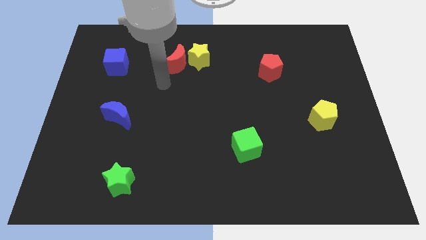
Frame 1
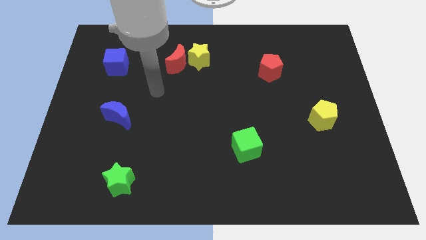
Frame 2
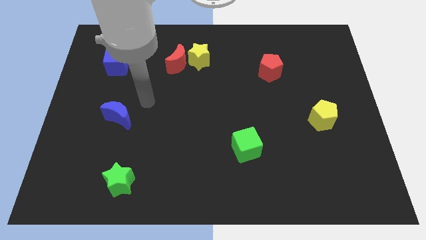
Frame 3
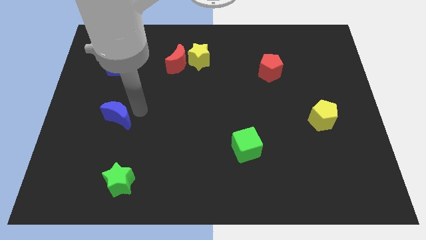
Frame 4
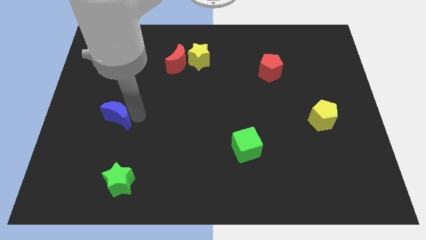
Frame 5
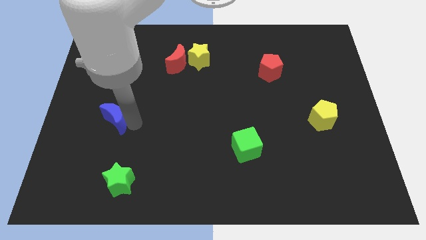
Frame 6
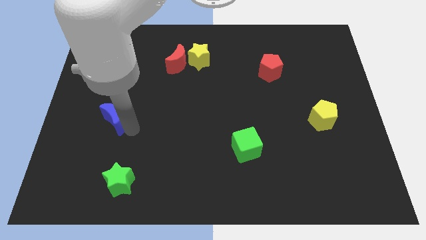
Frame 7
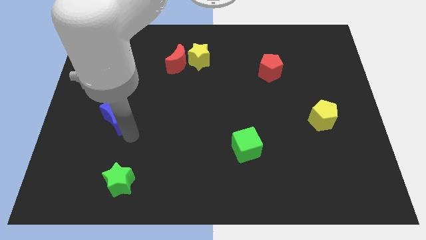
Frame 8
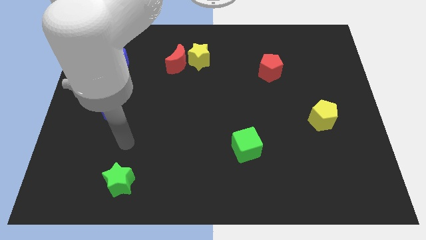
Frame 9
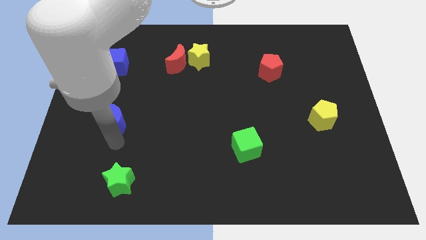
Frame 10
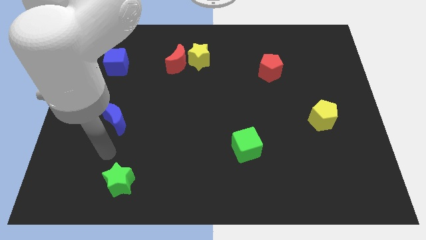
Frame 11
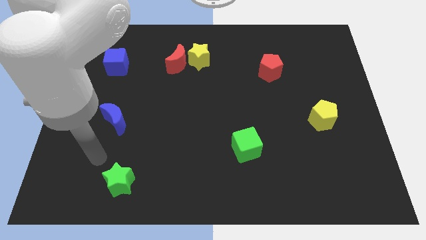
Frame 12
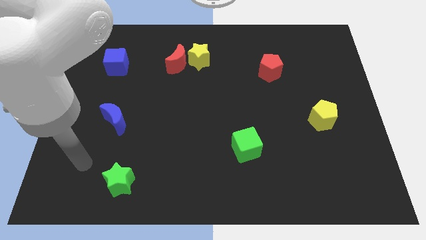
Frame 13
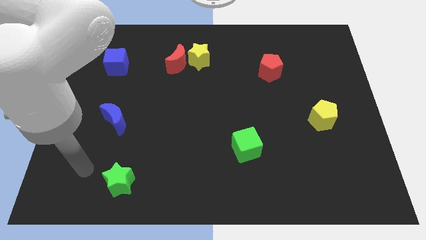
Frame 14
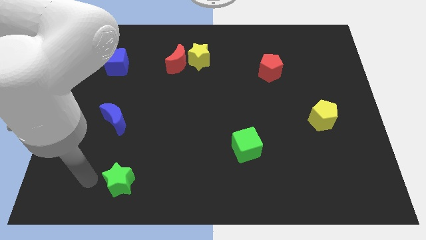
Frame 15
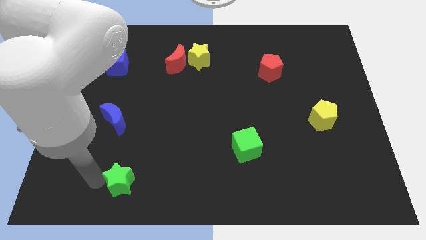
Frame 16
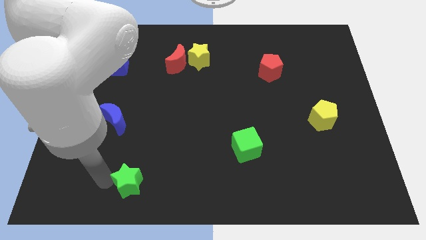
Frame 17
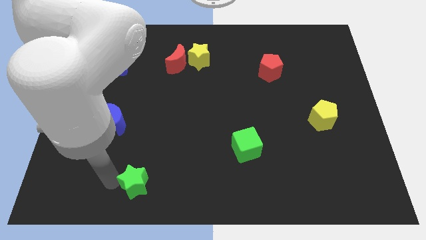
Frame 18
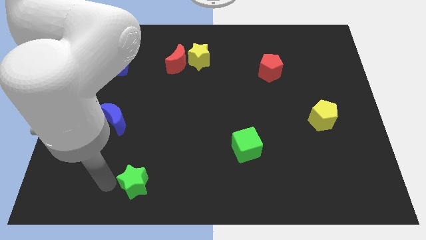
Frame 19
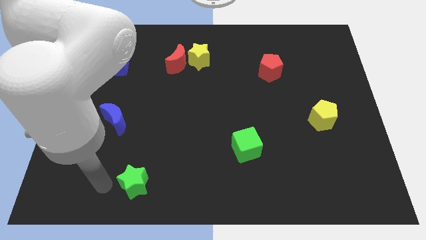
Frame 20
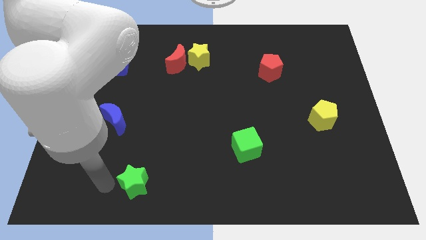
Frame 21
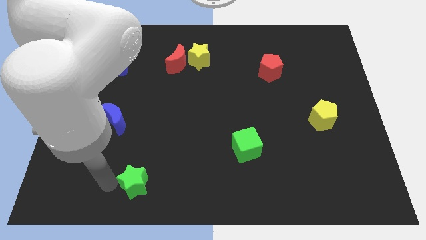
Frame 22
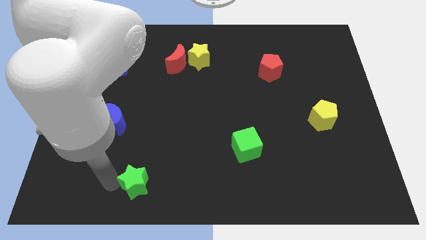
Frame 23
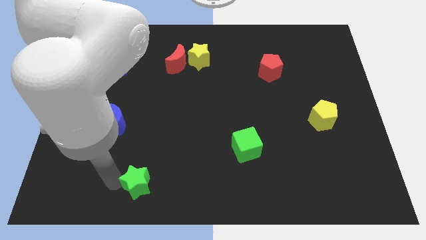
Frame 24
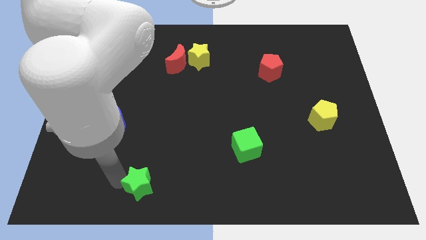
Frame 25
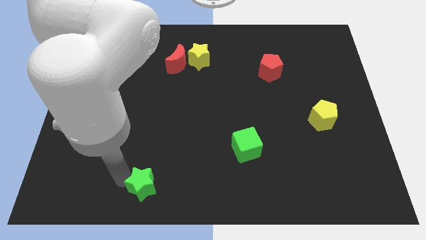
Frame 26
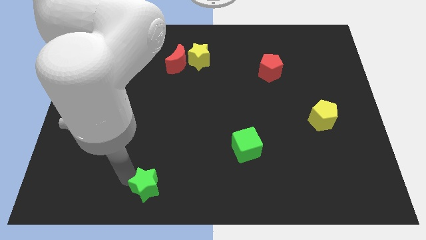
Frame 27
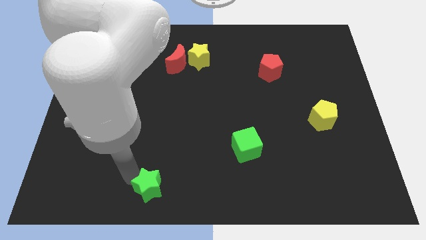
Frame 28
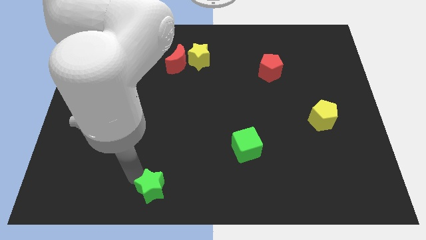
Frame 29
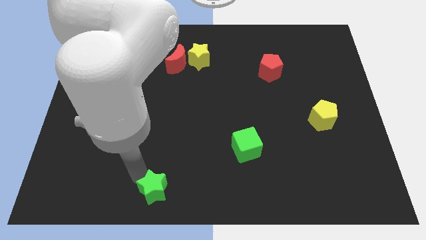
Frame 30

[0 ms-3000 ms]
slide the green star to the right a bit

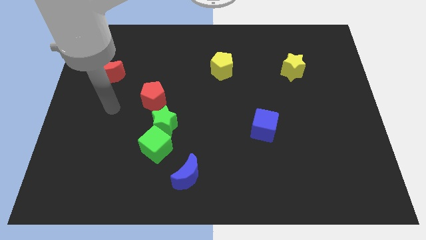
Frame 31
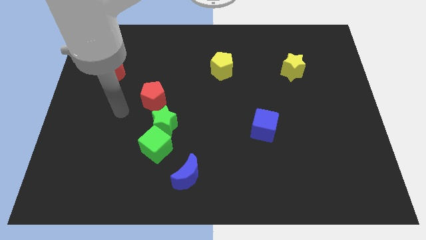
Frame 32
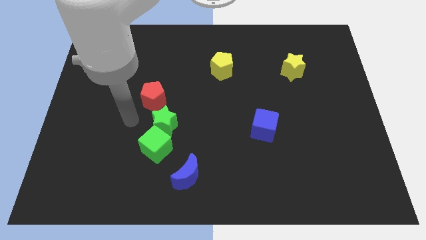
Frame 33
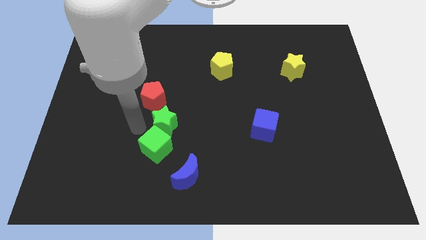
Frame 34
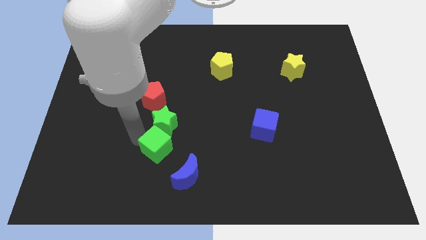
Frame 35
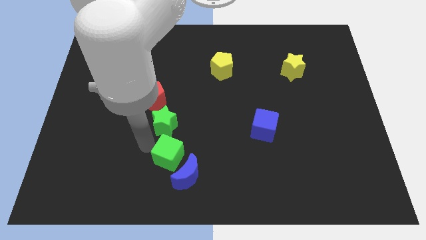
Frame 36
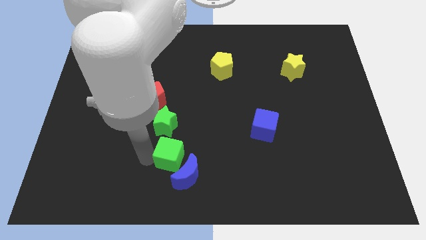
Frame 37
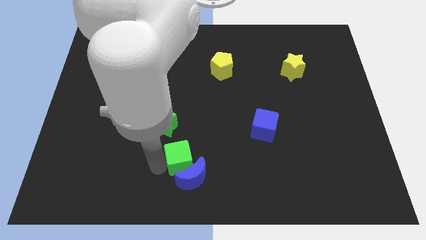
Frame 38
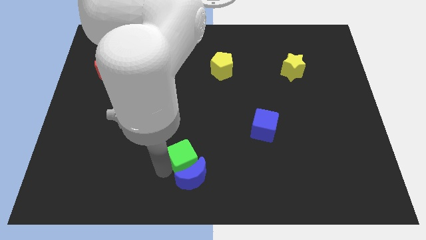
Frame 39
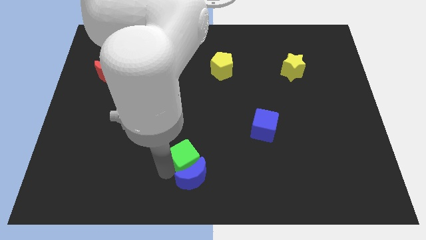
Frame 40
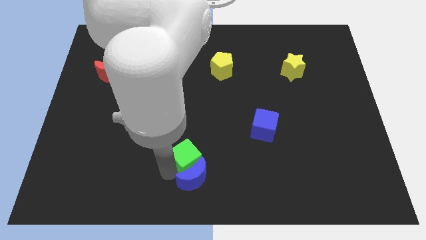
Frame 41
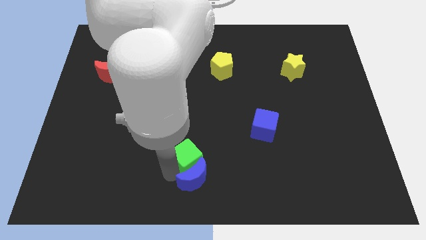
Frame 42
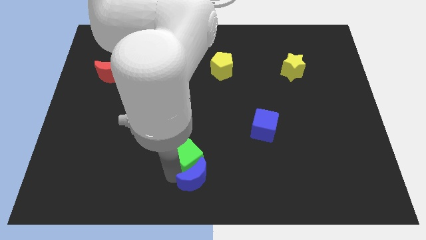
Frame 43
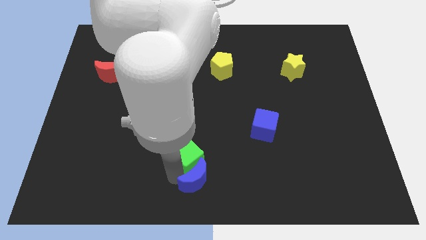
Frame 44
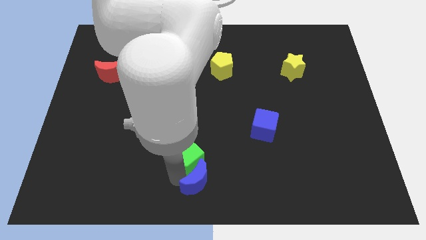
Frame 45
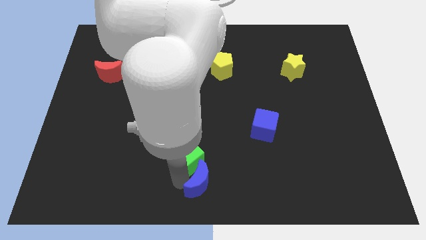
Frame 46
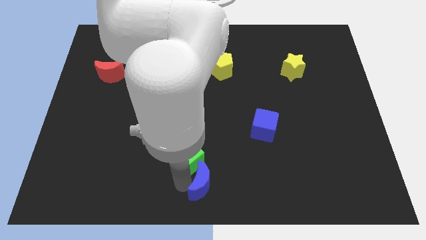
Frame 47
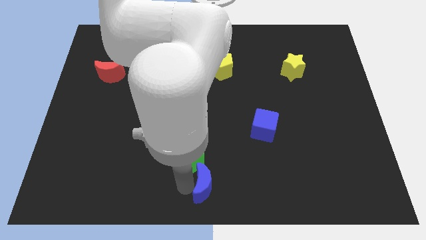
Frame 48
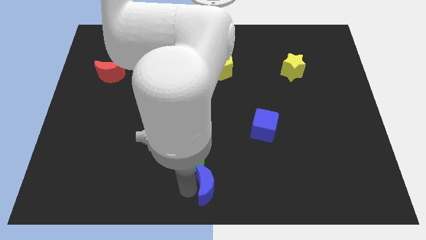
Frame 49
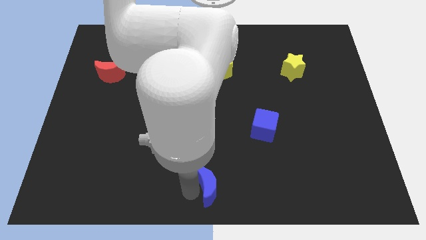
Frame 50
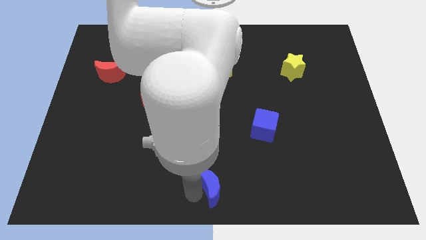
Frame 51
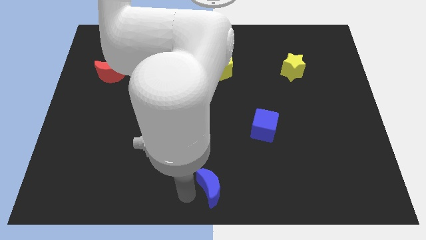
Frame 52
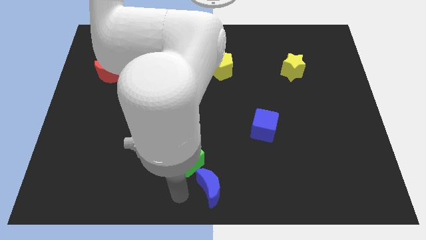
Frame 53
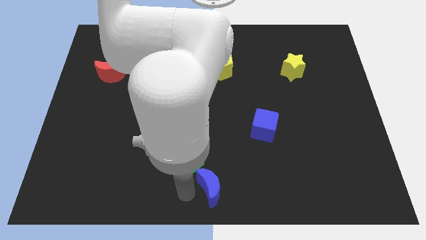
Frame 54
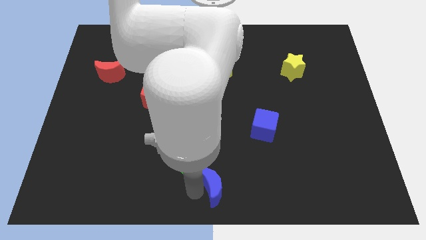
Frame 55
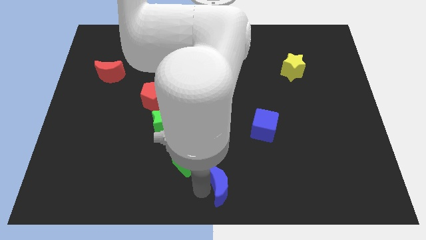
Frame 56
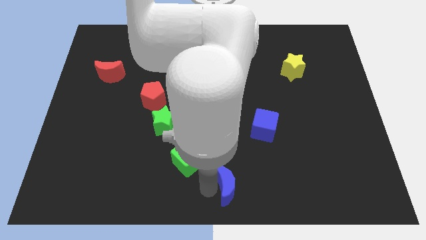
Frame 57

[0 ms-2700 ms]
move the blue moon somewhat to the right

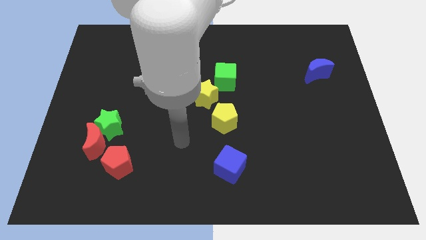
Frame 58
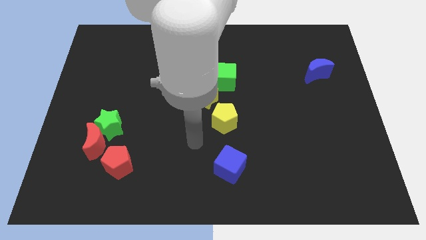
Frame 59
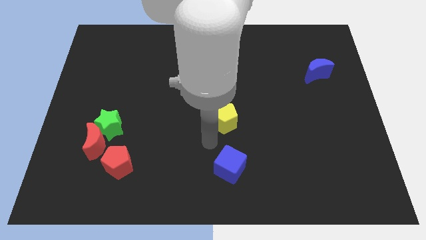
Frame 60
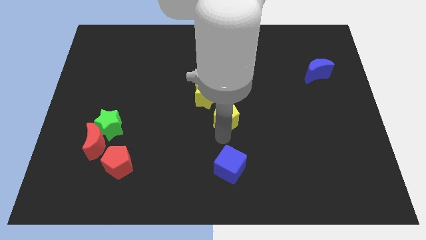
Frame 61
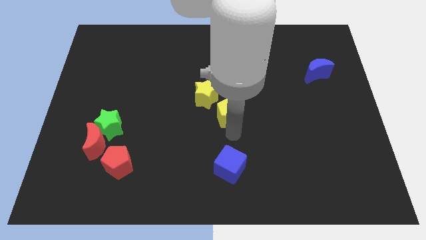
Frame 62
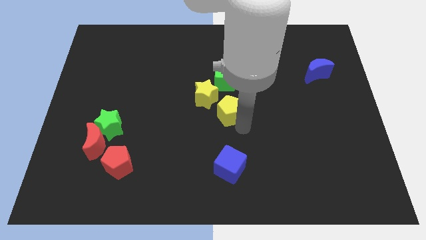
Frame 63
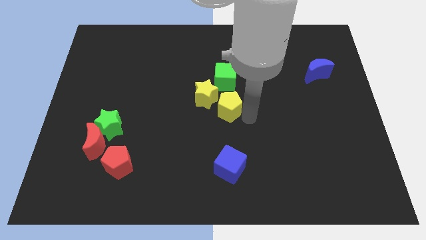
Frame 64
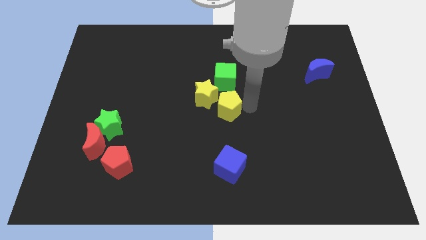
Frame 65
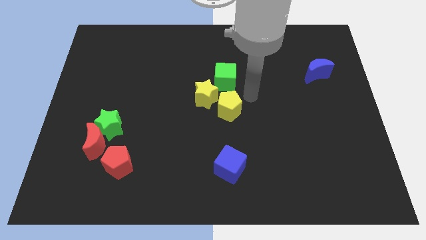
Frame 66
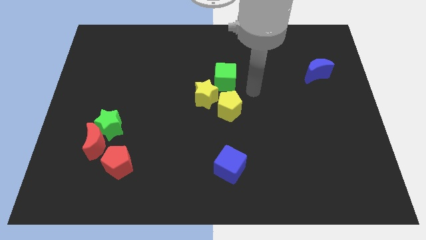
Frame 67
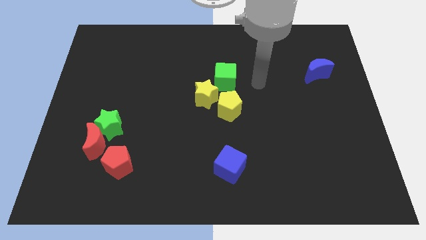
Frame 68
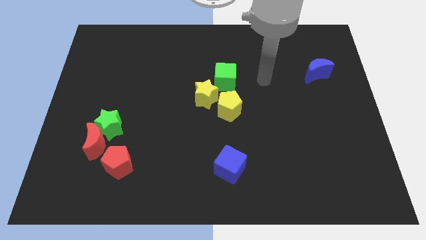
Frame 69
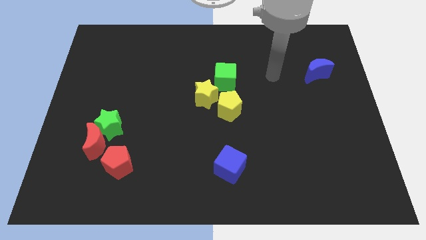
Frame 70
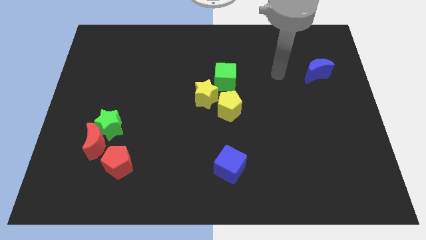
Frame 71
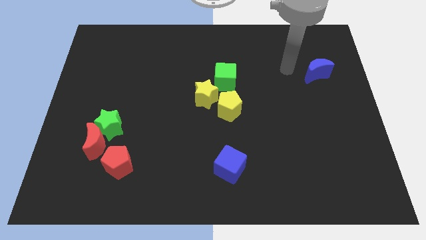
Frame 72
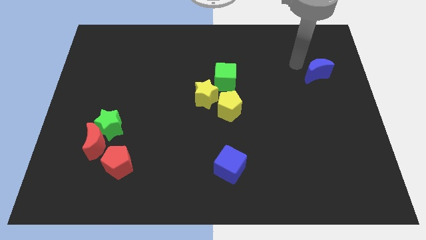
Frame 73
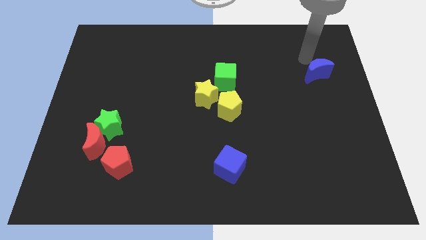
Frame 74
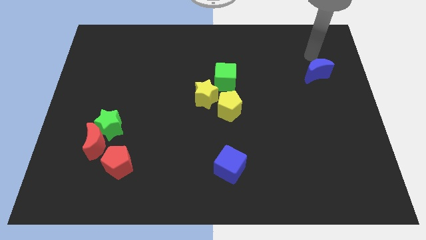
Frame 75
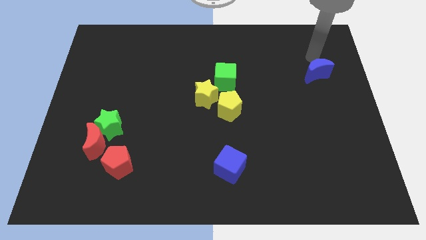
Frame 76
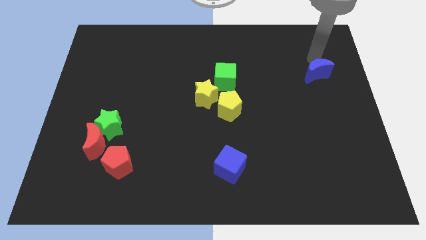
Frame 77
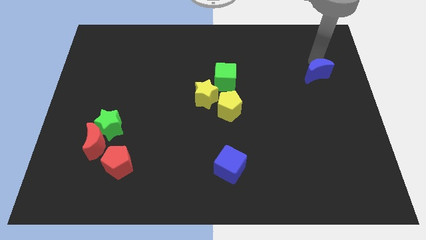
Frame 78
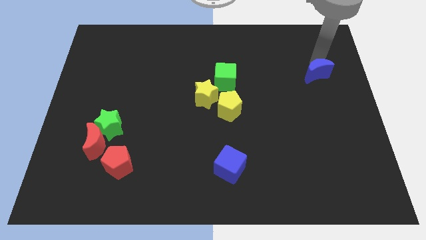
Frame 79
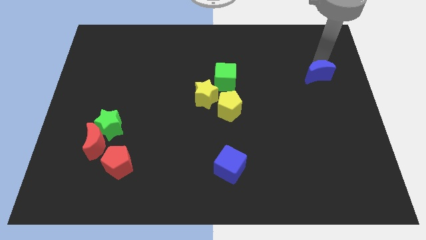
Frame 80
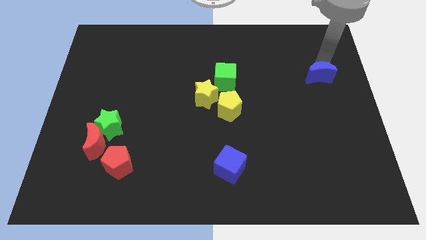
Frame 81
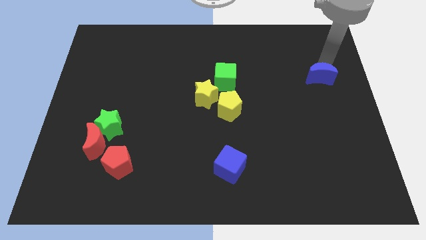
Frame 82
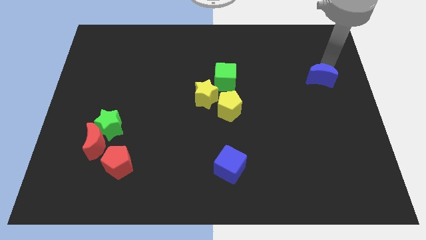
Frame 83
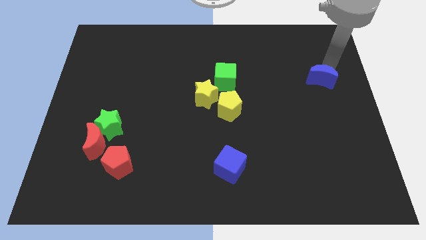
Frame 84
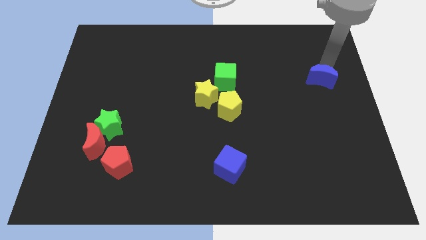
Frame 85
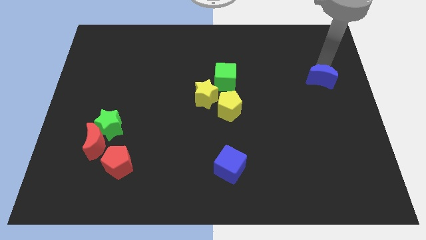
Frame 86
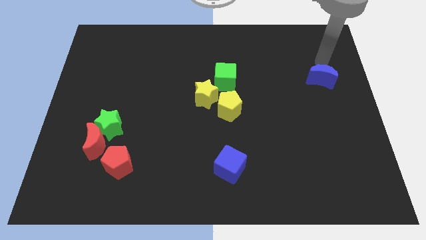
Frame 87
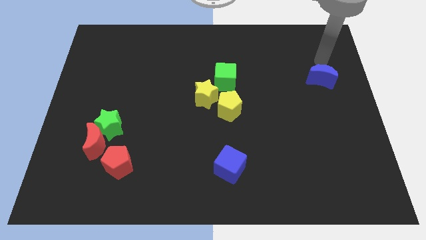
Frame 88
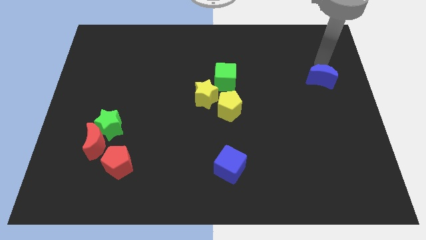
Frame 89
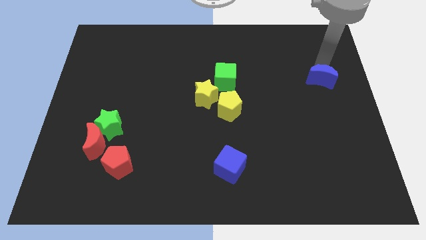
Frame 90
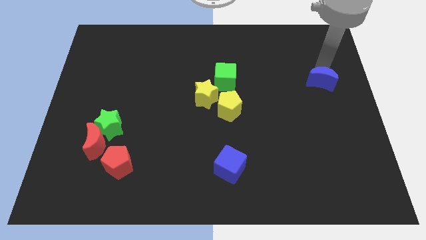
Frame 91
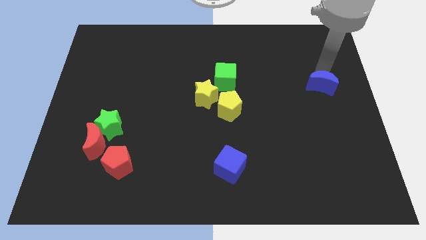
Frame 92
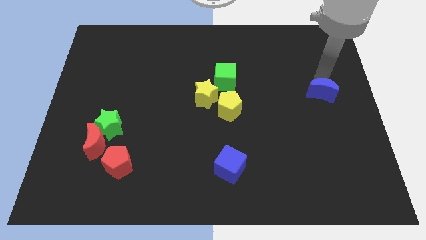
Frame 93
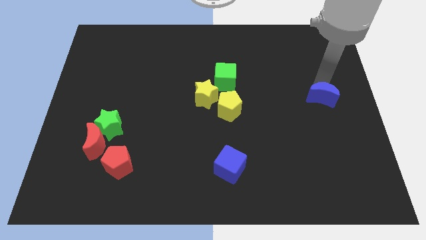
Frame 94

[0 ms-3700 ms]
push the blue moon down slightly
